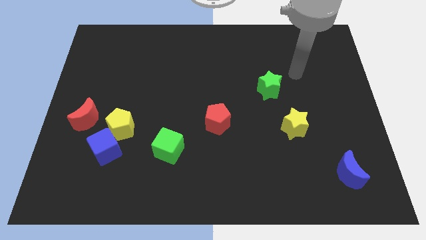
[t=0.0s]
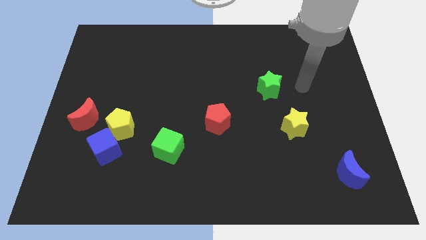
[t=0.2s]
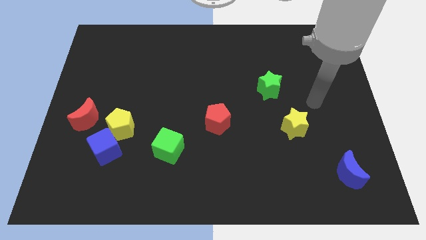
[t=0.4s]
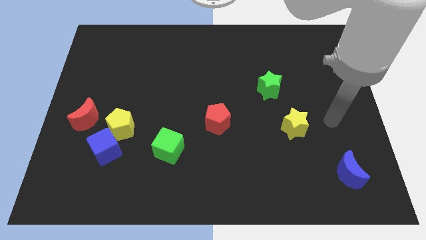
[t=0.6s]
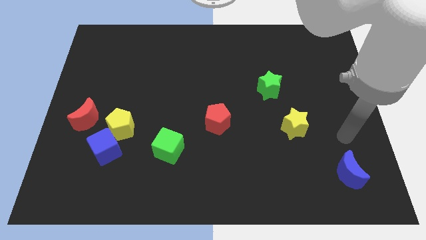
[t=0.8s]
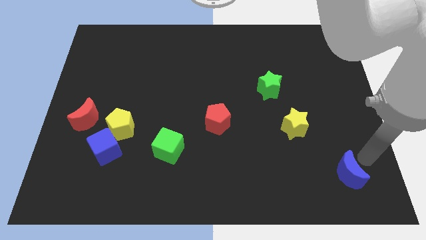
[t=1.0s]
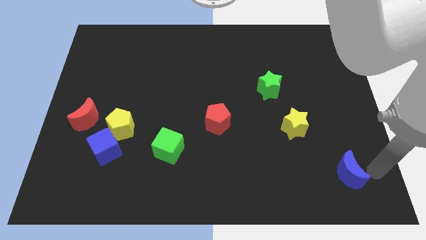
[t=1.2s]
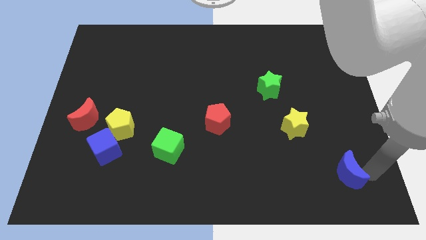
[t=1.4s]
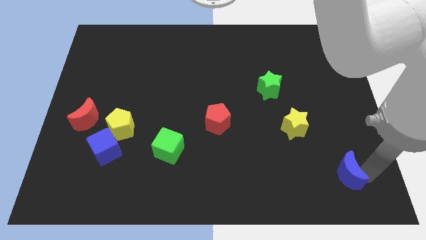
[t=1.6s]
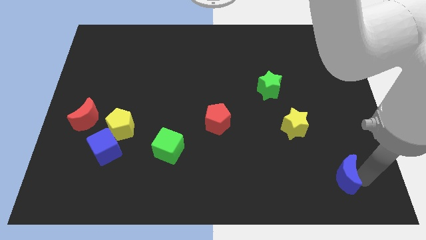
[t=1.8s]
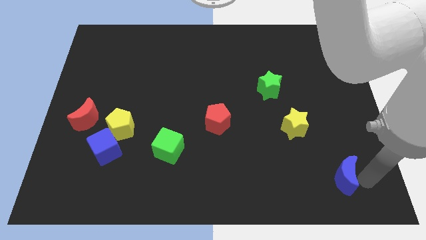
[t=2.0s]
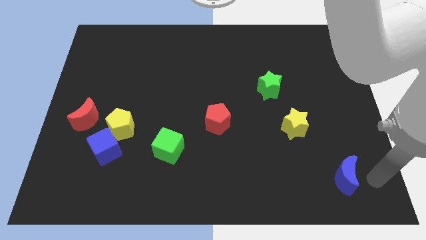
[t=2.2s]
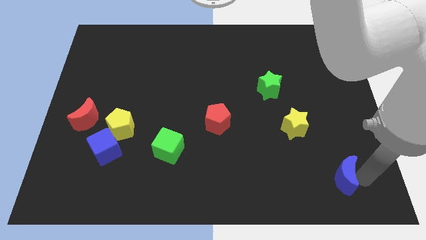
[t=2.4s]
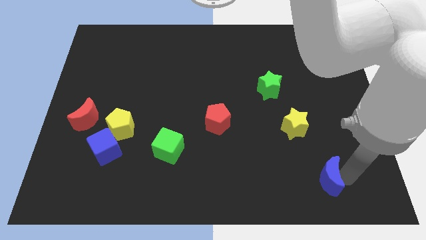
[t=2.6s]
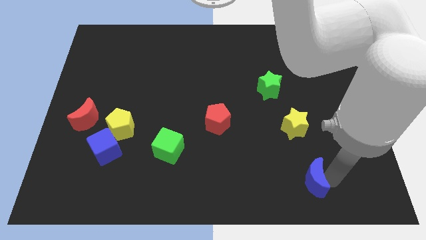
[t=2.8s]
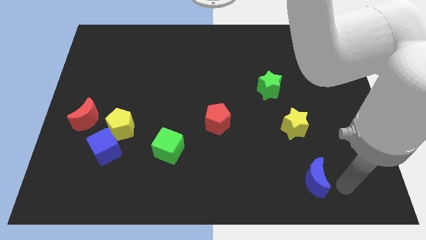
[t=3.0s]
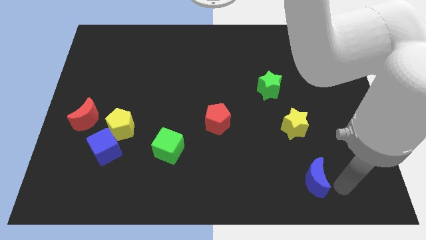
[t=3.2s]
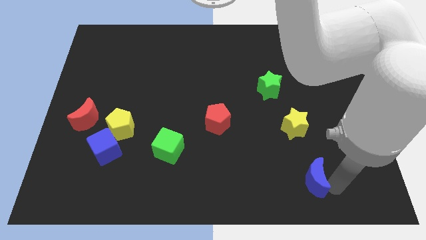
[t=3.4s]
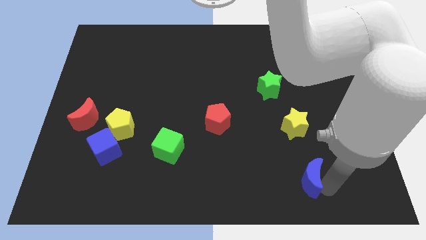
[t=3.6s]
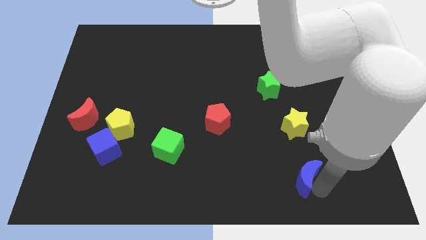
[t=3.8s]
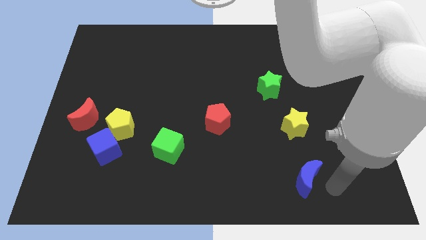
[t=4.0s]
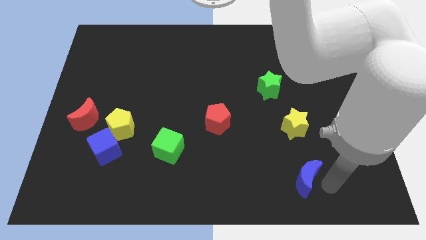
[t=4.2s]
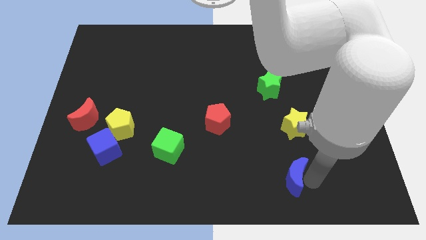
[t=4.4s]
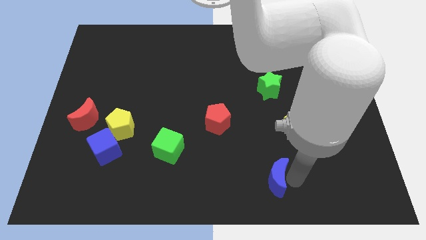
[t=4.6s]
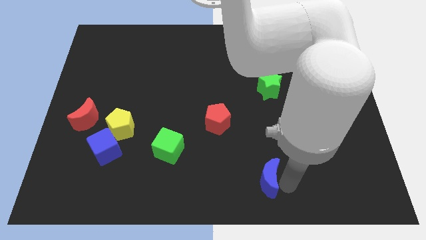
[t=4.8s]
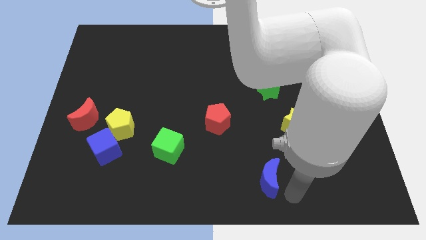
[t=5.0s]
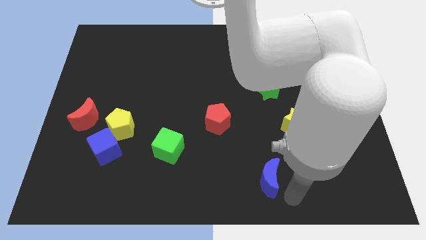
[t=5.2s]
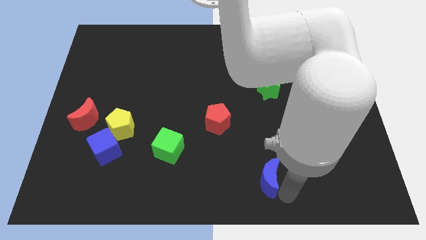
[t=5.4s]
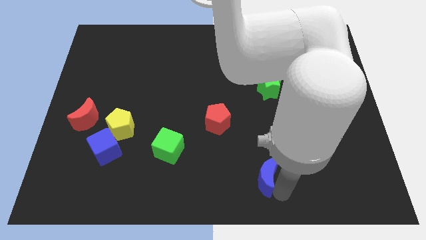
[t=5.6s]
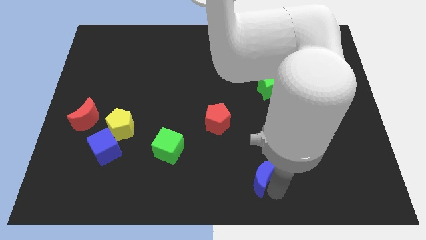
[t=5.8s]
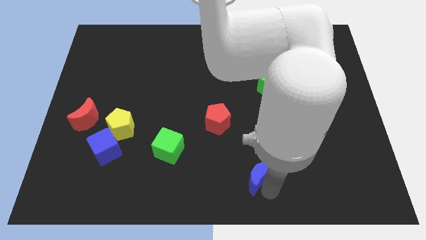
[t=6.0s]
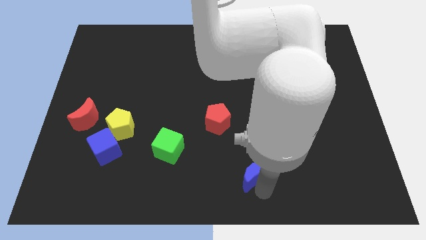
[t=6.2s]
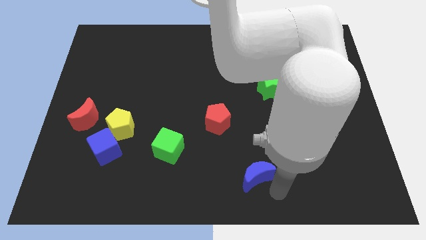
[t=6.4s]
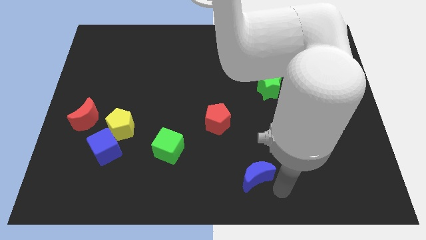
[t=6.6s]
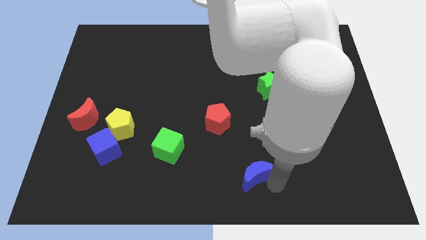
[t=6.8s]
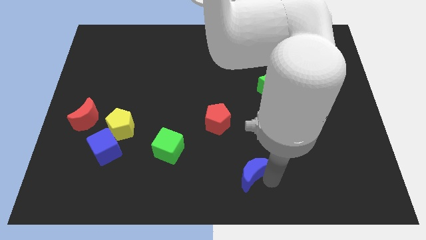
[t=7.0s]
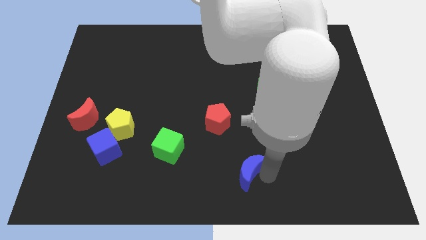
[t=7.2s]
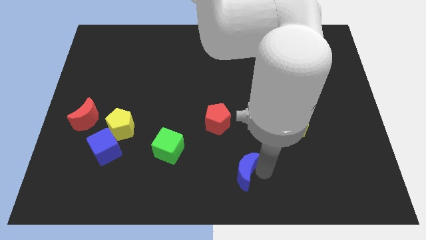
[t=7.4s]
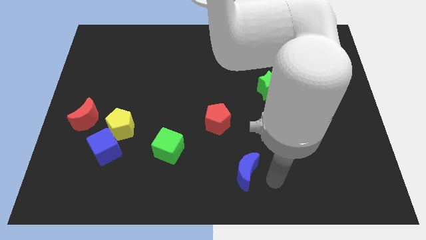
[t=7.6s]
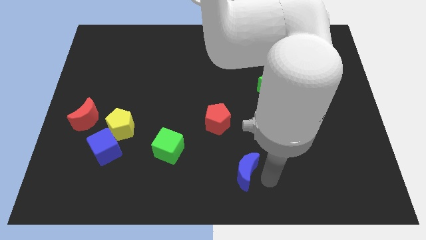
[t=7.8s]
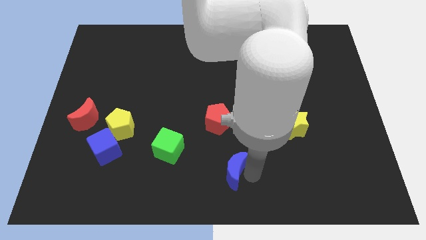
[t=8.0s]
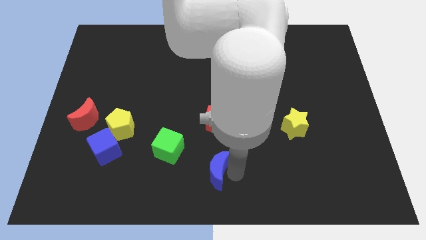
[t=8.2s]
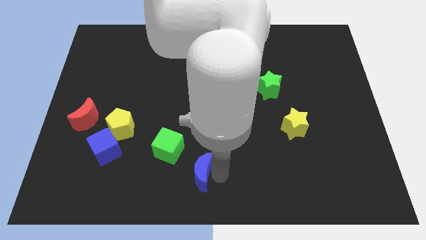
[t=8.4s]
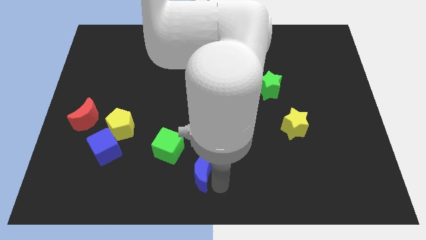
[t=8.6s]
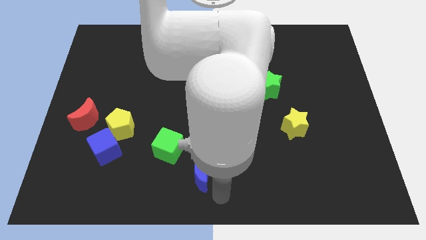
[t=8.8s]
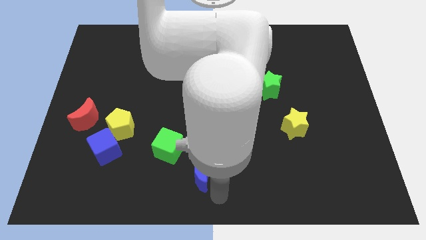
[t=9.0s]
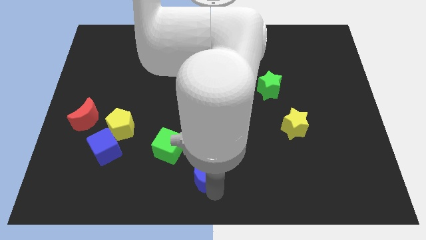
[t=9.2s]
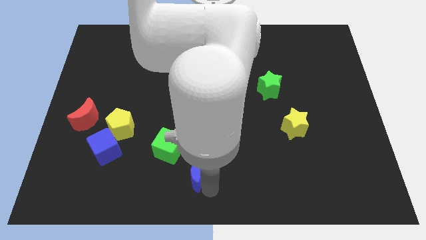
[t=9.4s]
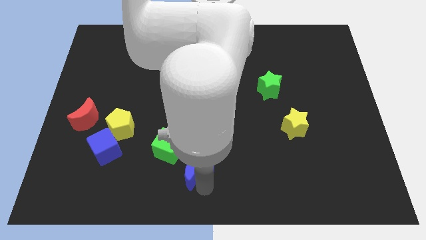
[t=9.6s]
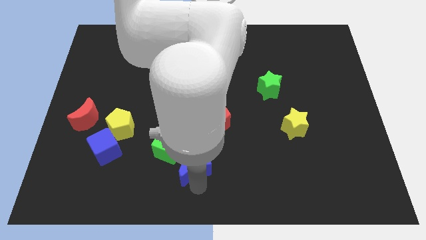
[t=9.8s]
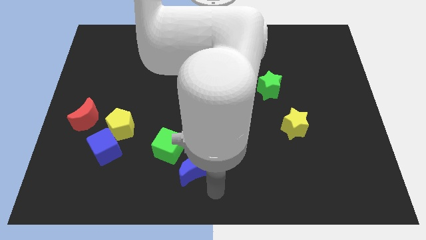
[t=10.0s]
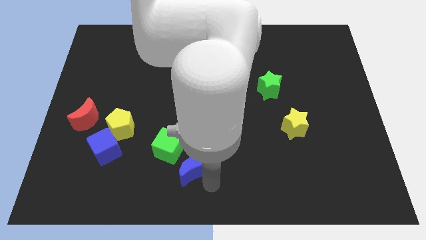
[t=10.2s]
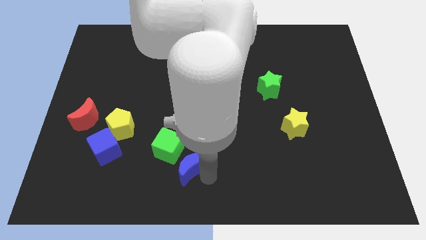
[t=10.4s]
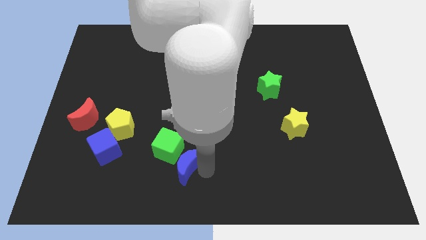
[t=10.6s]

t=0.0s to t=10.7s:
move the blue moon next to the green cube

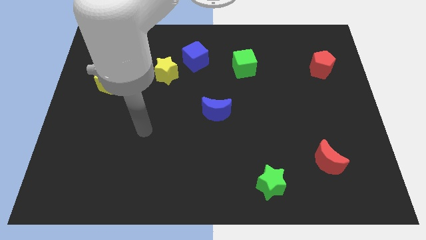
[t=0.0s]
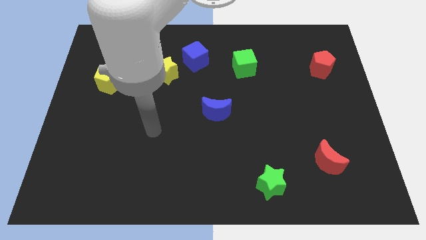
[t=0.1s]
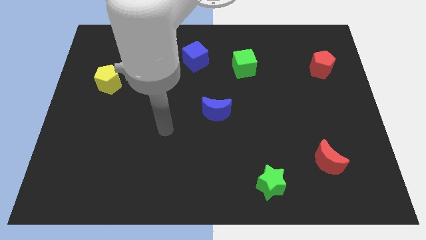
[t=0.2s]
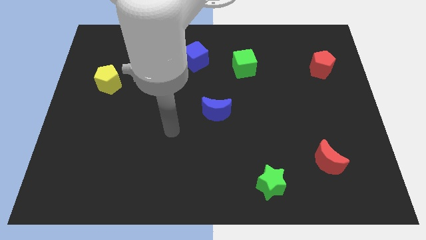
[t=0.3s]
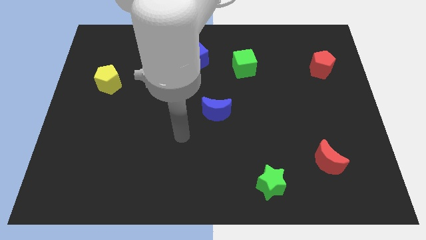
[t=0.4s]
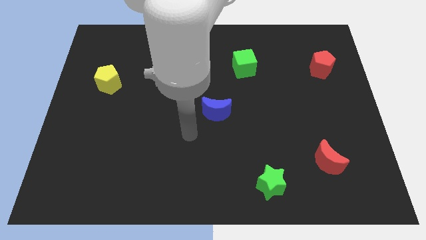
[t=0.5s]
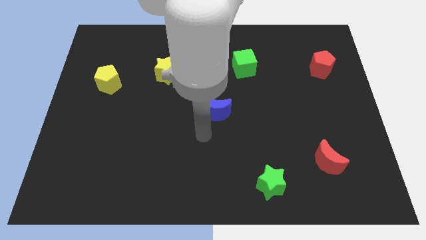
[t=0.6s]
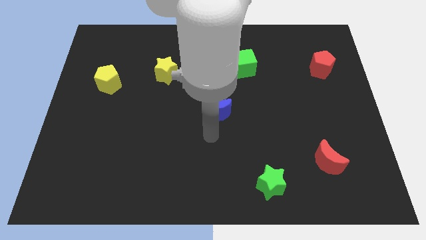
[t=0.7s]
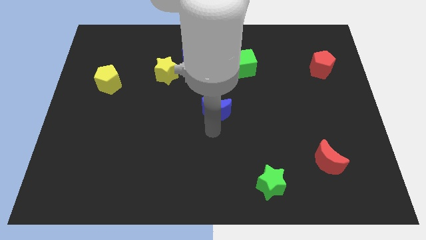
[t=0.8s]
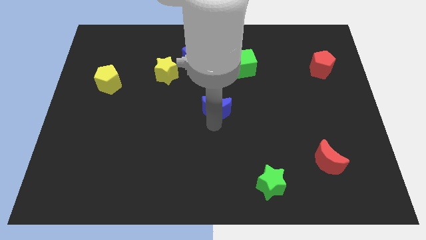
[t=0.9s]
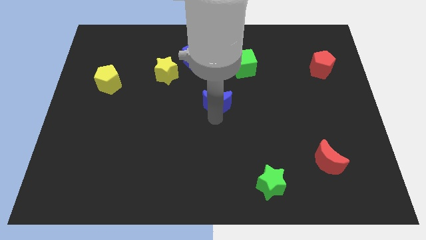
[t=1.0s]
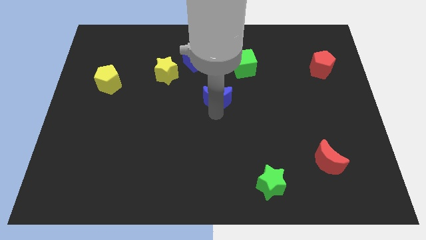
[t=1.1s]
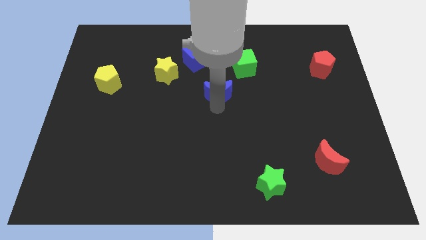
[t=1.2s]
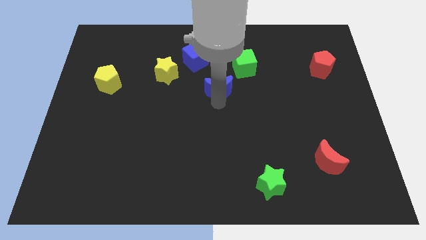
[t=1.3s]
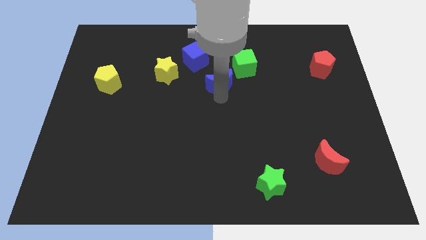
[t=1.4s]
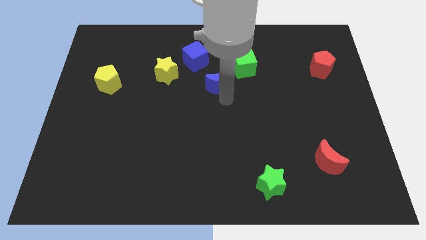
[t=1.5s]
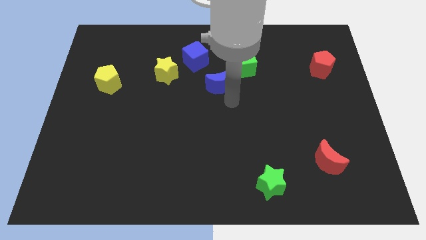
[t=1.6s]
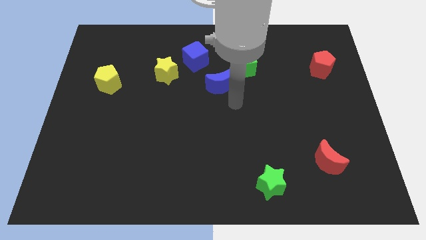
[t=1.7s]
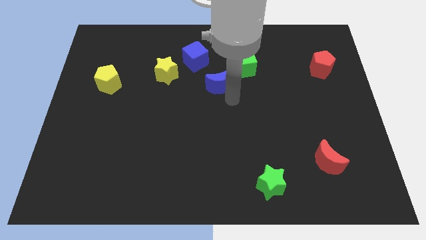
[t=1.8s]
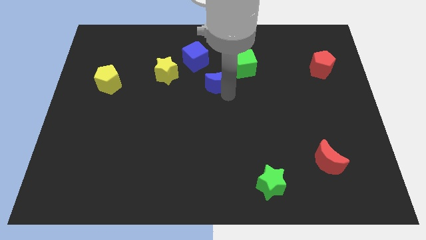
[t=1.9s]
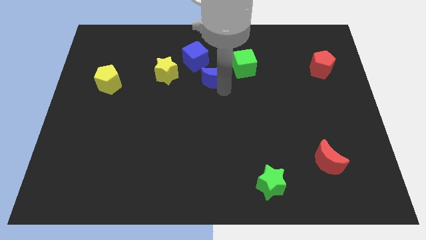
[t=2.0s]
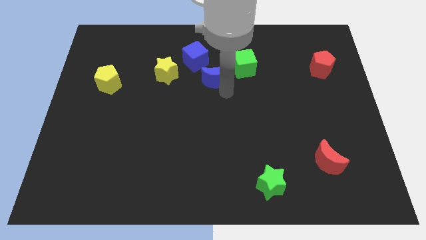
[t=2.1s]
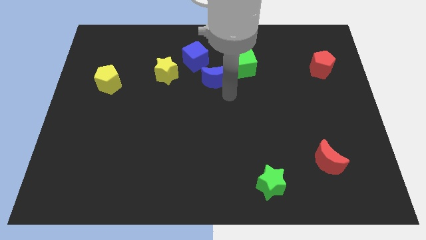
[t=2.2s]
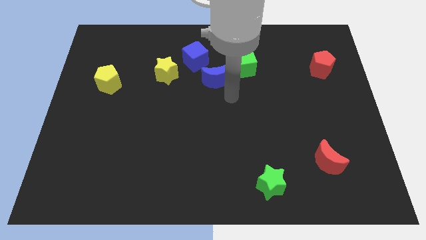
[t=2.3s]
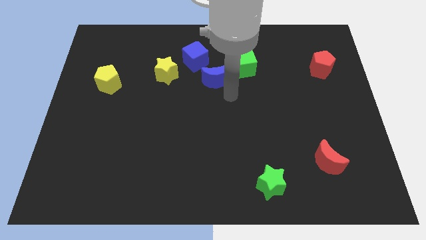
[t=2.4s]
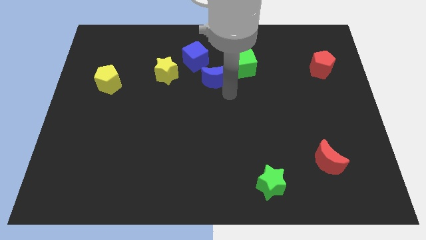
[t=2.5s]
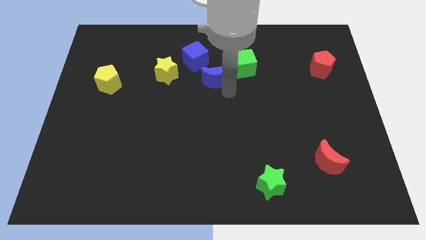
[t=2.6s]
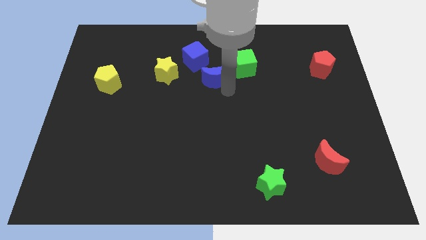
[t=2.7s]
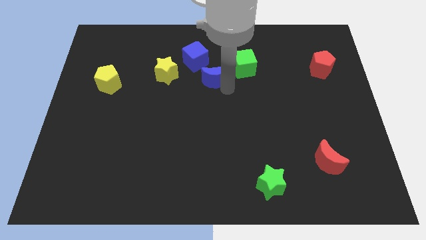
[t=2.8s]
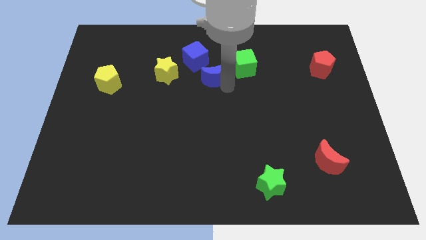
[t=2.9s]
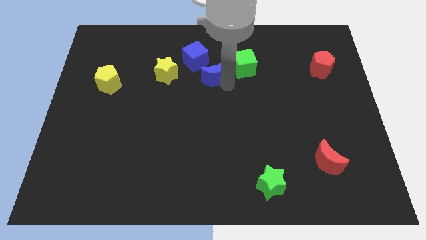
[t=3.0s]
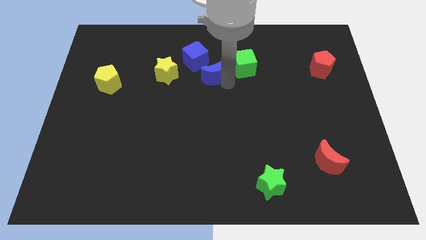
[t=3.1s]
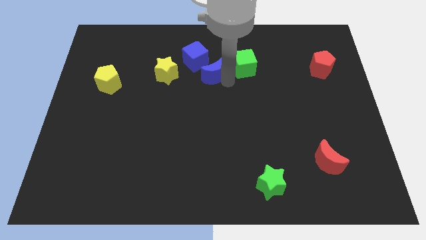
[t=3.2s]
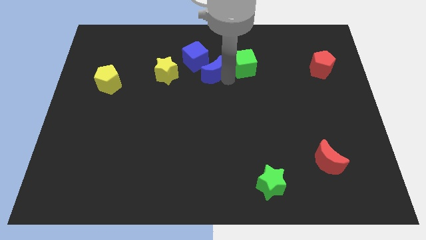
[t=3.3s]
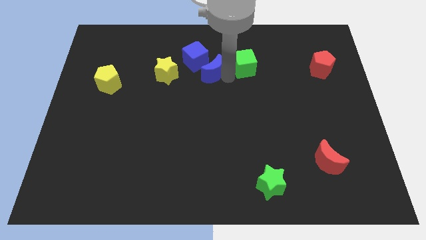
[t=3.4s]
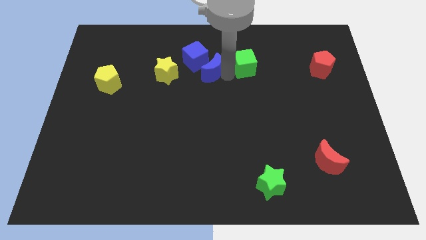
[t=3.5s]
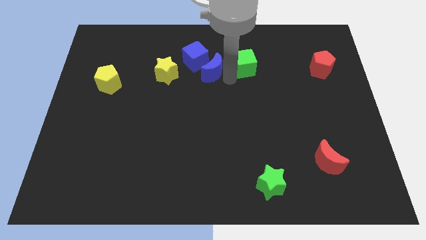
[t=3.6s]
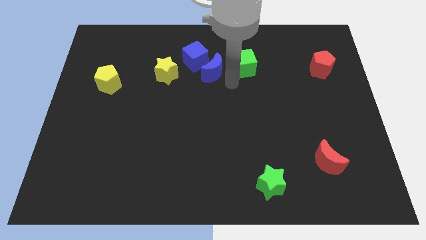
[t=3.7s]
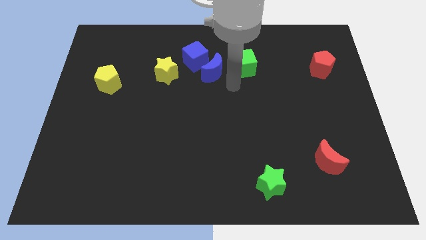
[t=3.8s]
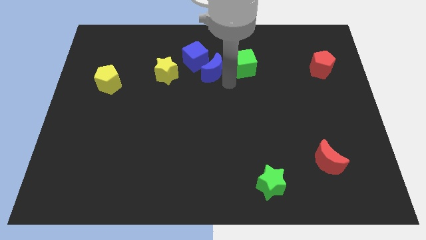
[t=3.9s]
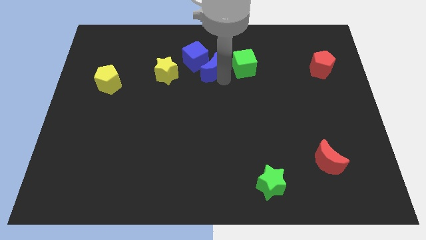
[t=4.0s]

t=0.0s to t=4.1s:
move the blue moon next to the blue cube
